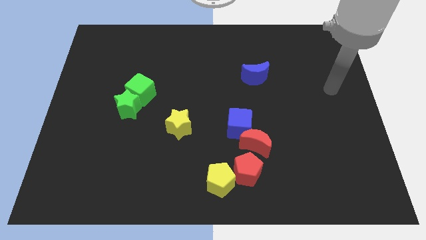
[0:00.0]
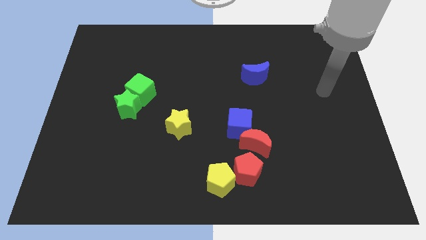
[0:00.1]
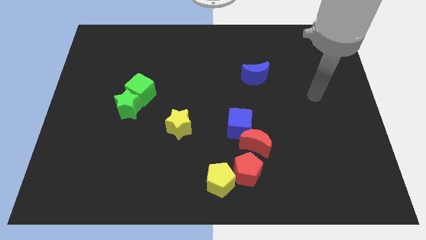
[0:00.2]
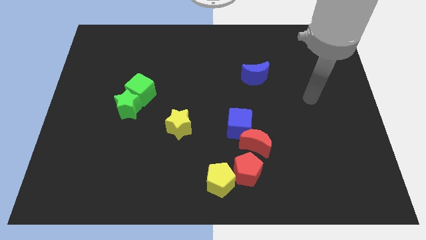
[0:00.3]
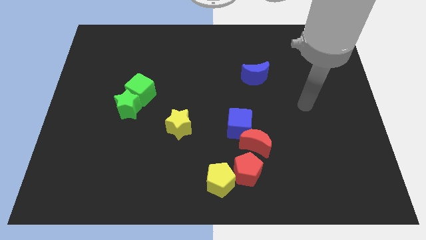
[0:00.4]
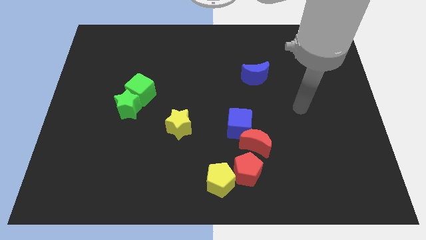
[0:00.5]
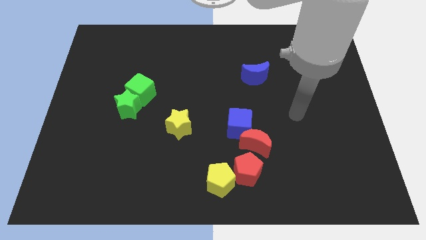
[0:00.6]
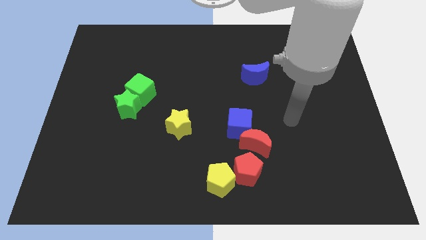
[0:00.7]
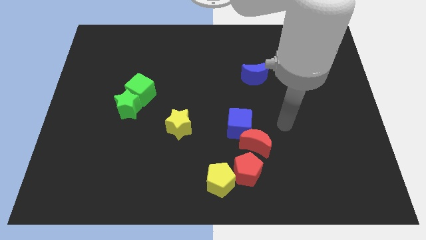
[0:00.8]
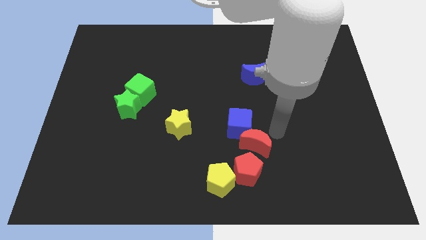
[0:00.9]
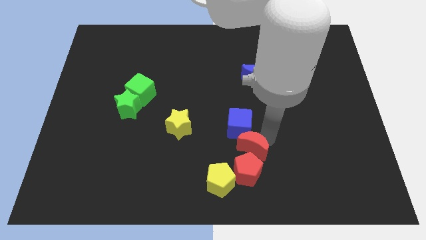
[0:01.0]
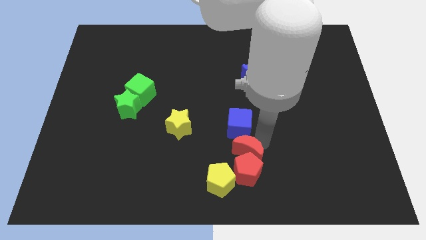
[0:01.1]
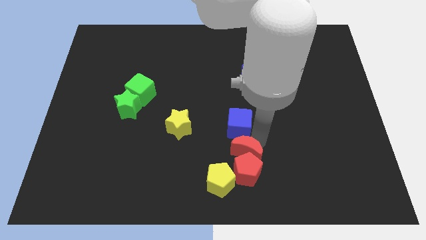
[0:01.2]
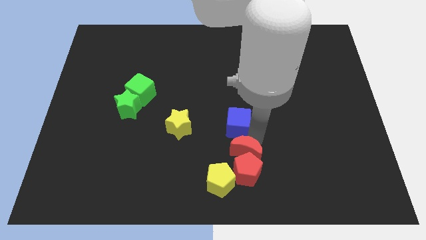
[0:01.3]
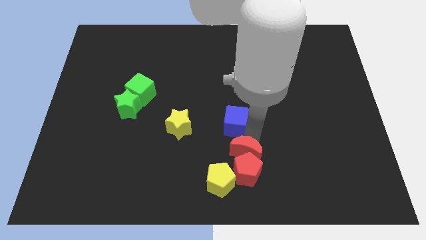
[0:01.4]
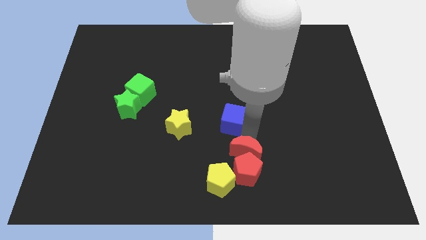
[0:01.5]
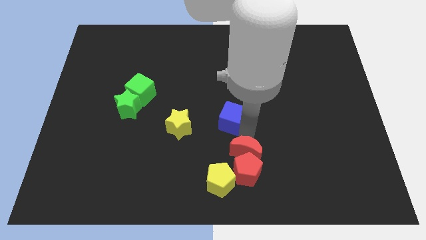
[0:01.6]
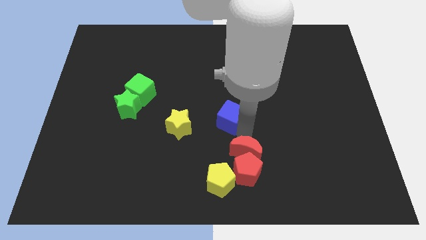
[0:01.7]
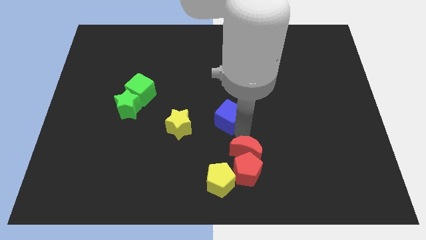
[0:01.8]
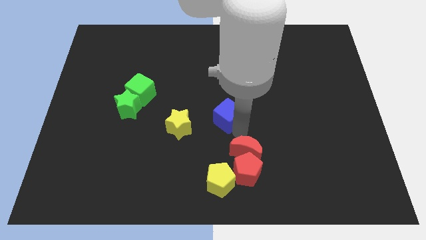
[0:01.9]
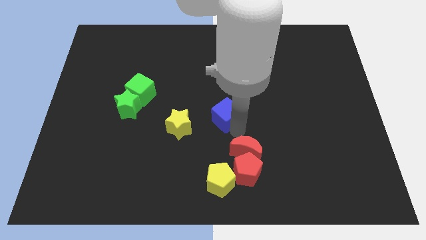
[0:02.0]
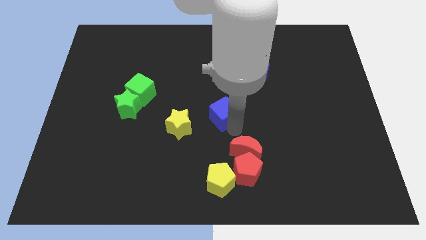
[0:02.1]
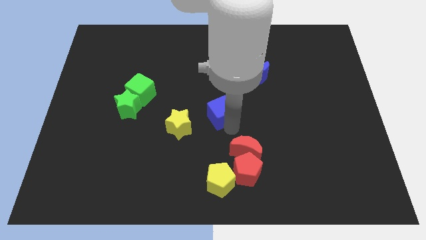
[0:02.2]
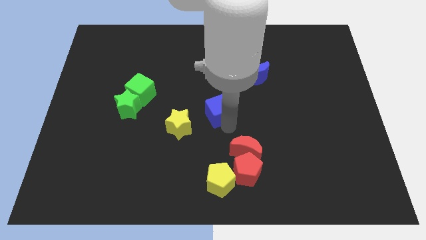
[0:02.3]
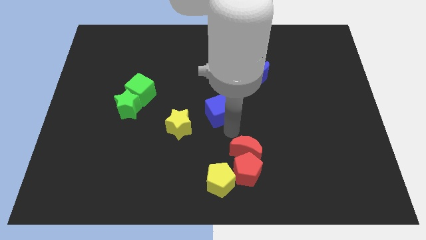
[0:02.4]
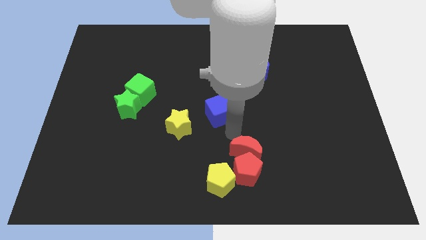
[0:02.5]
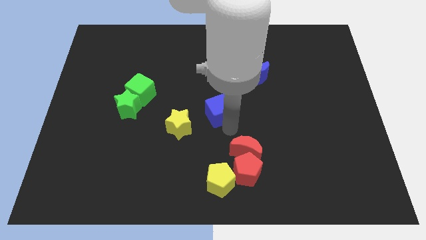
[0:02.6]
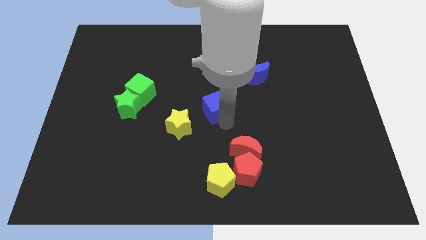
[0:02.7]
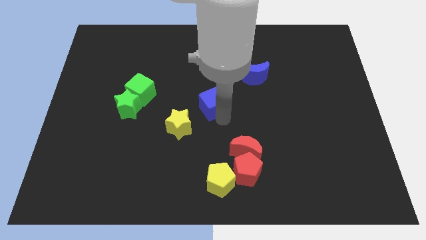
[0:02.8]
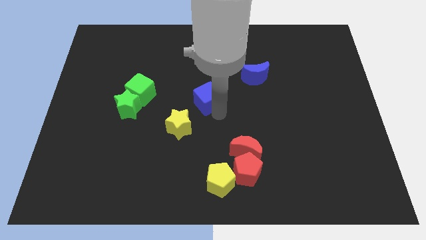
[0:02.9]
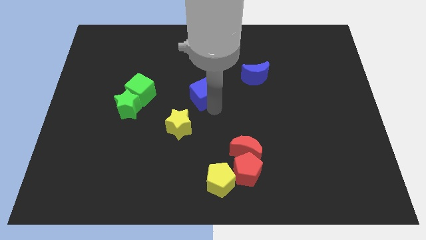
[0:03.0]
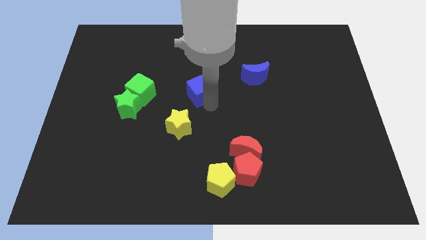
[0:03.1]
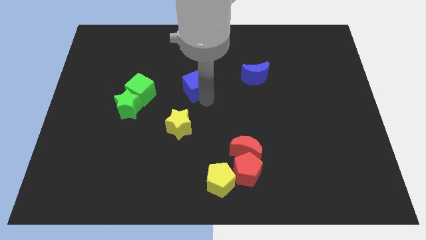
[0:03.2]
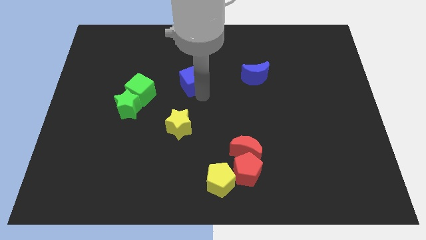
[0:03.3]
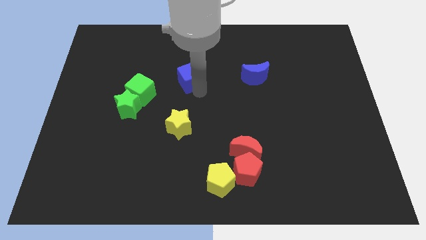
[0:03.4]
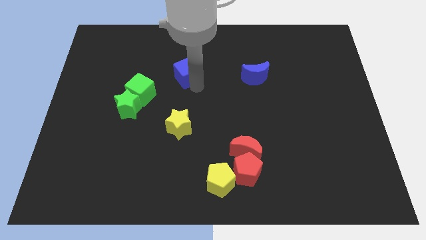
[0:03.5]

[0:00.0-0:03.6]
slide the blue cube diagonally upwards and to the left

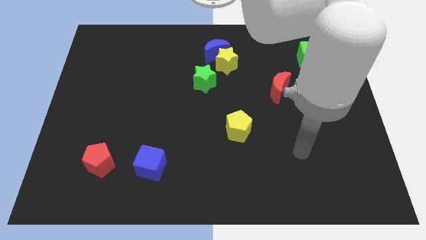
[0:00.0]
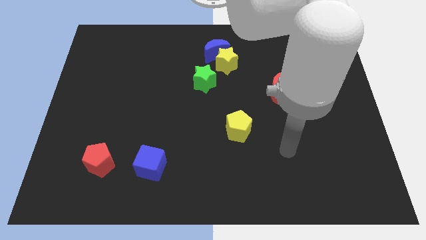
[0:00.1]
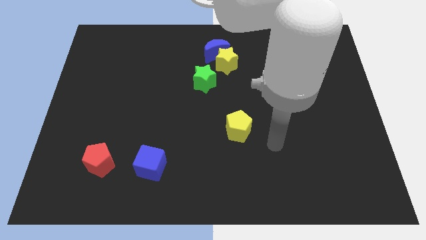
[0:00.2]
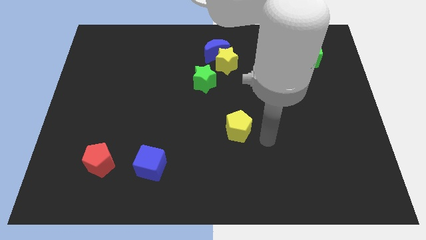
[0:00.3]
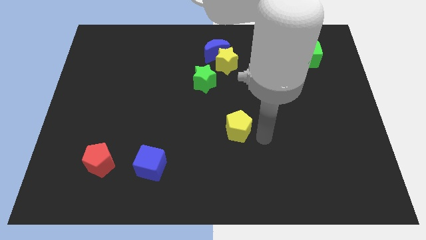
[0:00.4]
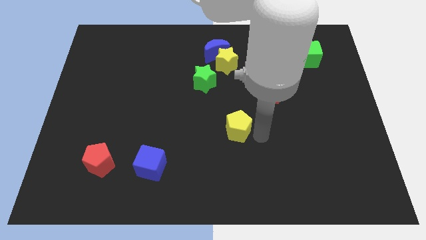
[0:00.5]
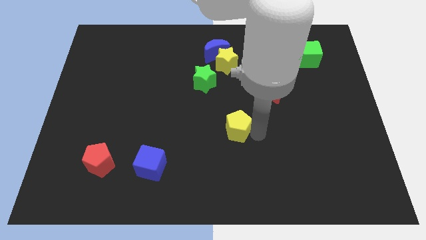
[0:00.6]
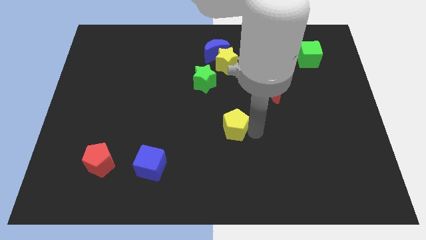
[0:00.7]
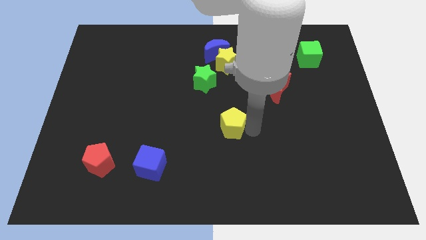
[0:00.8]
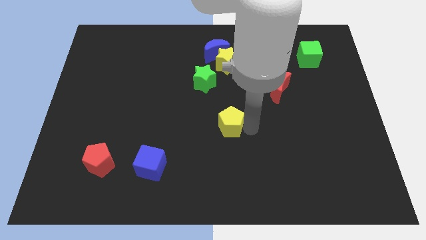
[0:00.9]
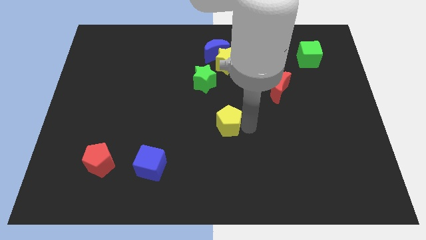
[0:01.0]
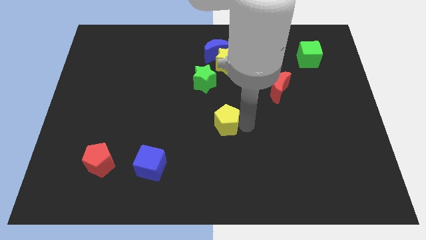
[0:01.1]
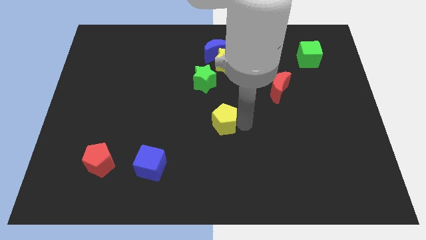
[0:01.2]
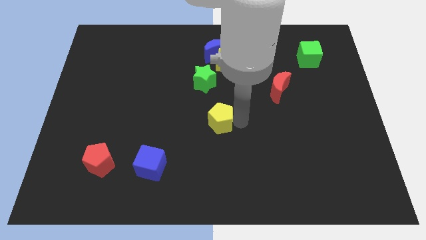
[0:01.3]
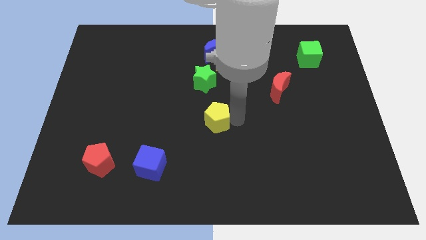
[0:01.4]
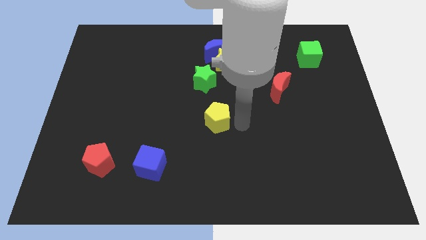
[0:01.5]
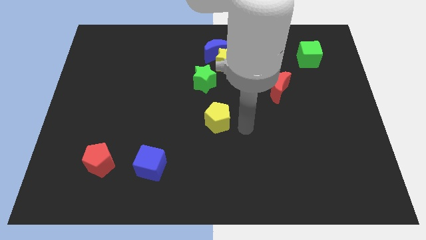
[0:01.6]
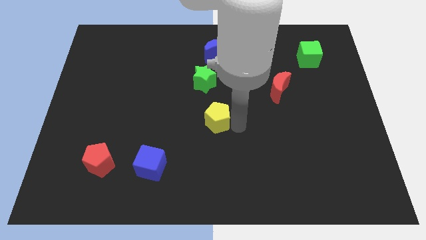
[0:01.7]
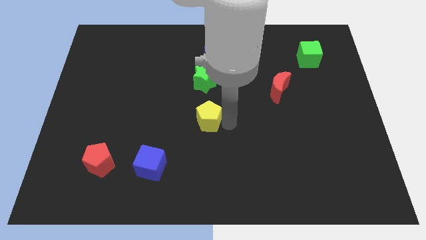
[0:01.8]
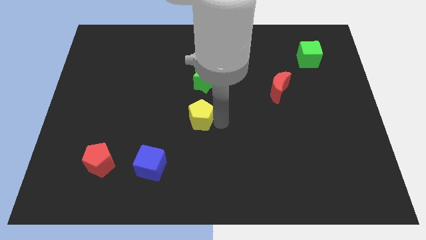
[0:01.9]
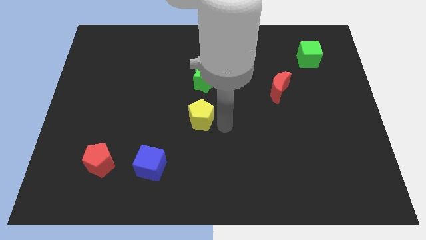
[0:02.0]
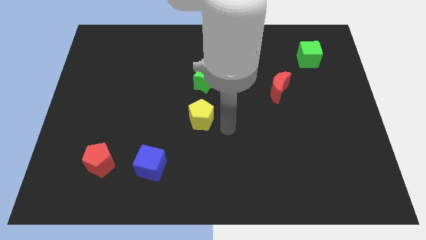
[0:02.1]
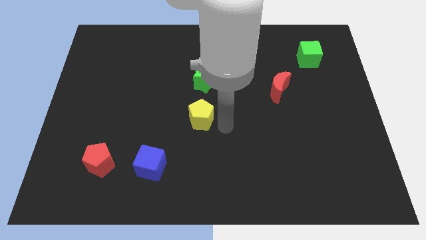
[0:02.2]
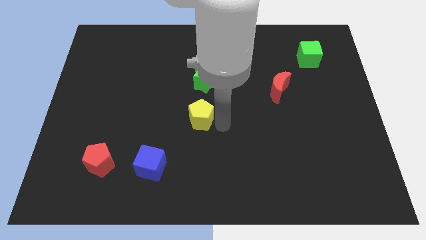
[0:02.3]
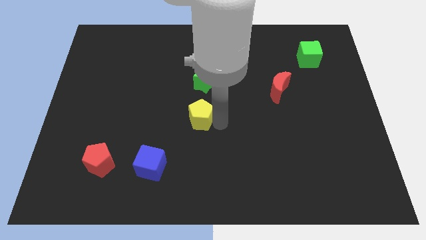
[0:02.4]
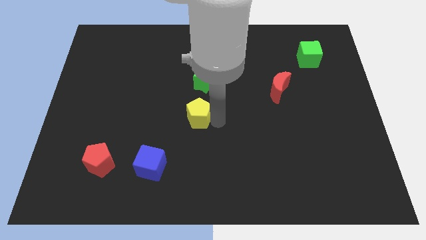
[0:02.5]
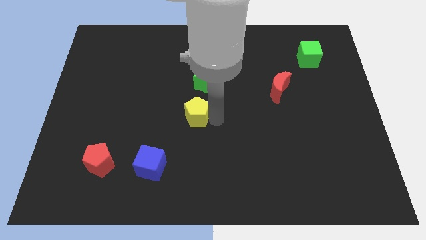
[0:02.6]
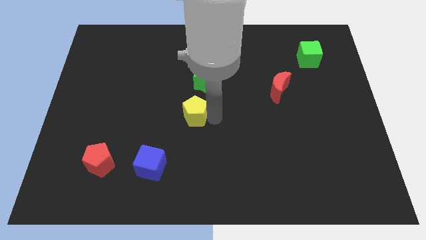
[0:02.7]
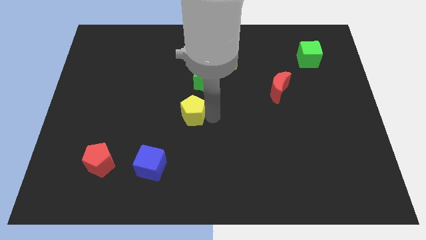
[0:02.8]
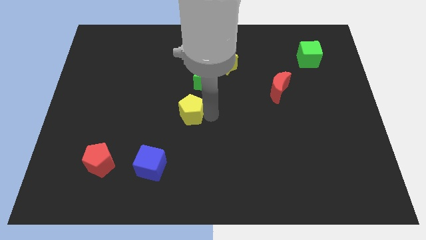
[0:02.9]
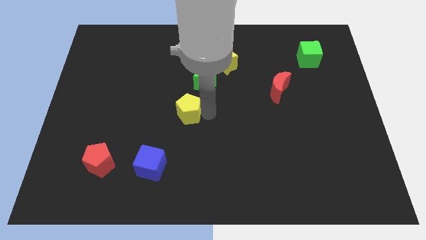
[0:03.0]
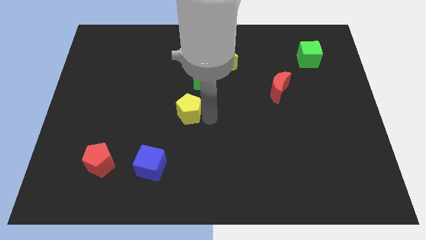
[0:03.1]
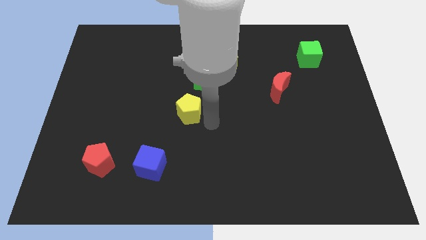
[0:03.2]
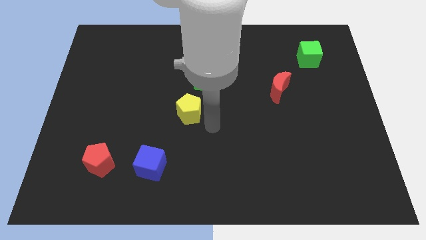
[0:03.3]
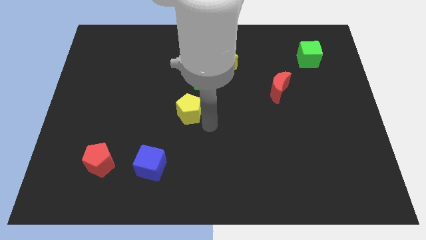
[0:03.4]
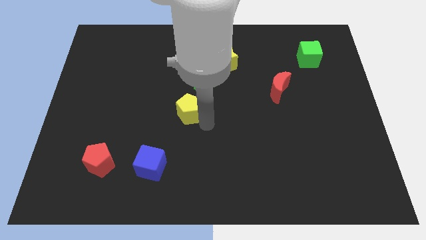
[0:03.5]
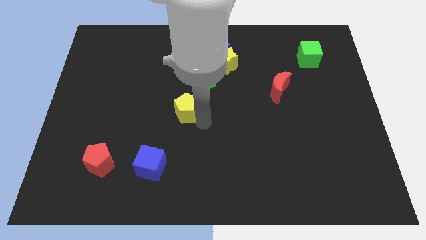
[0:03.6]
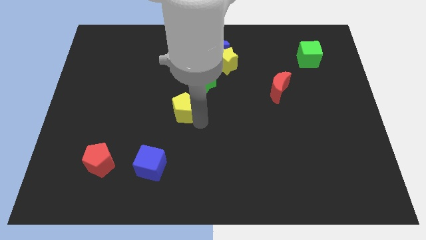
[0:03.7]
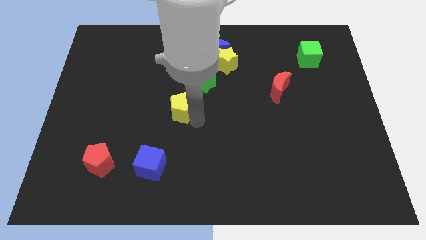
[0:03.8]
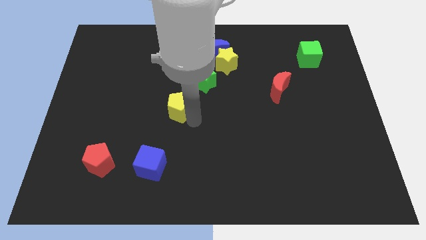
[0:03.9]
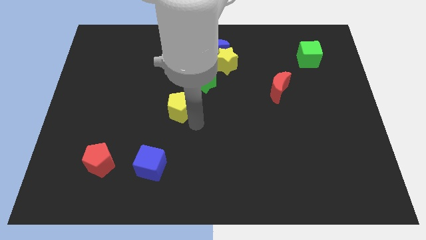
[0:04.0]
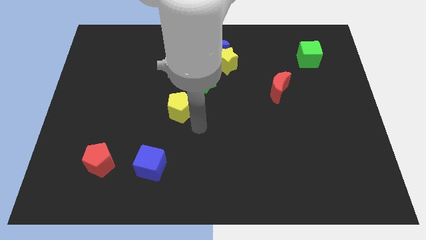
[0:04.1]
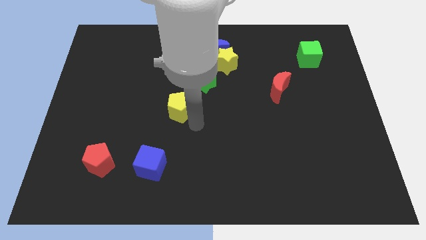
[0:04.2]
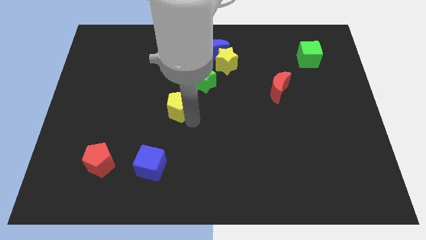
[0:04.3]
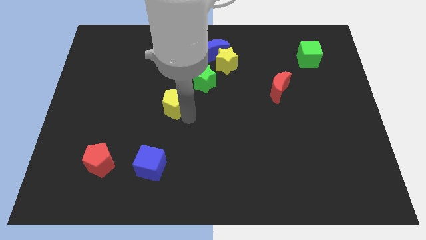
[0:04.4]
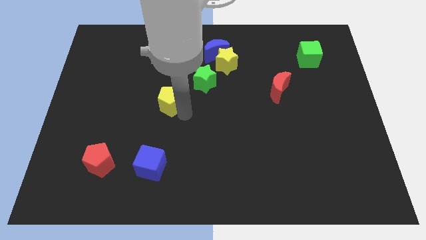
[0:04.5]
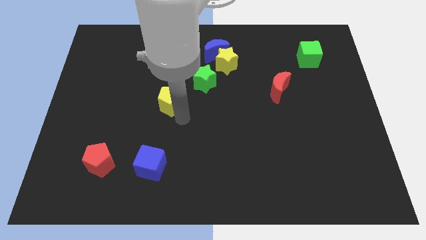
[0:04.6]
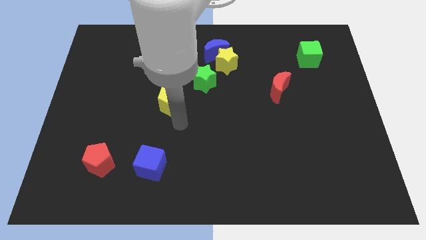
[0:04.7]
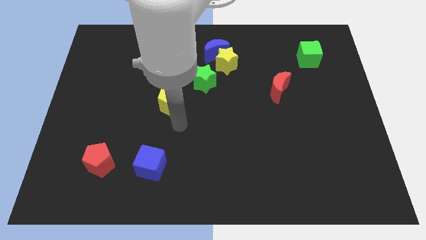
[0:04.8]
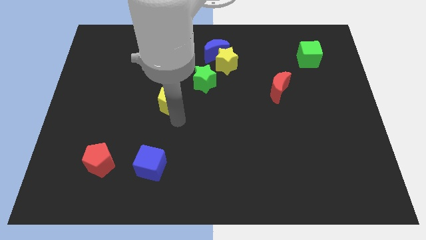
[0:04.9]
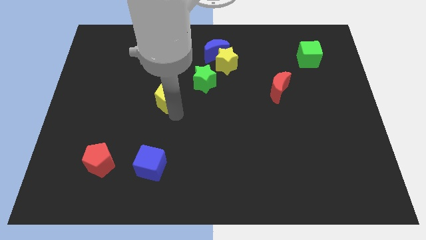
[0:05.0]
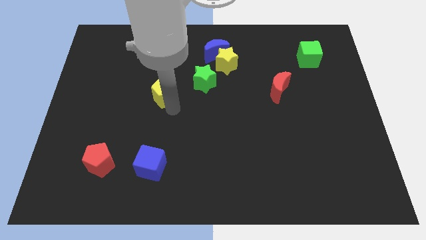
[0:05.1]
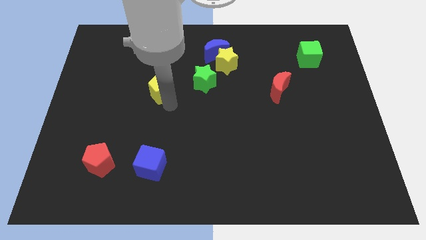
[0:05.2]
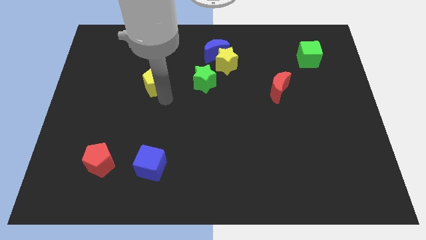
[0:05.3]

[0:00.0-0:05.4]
slide the yellow pentagon upwards and left diagonally
